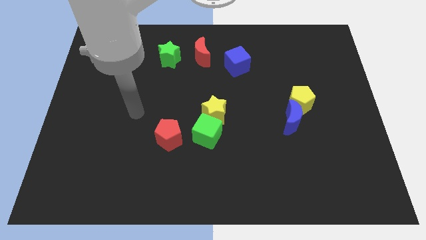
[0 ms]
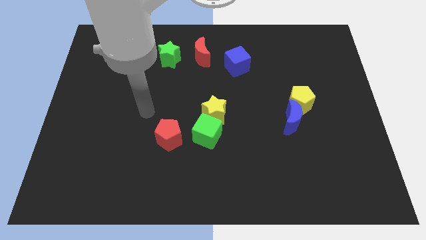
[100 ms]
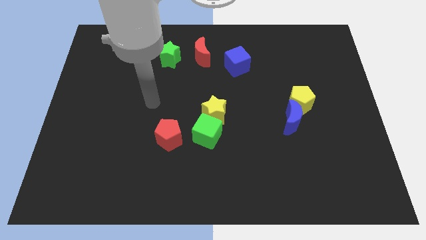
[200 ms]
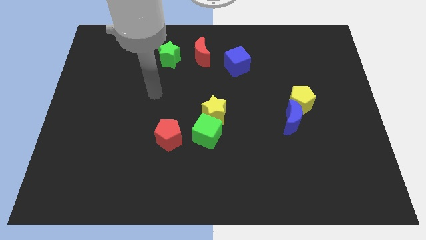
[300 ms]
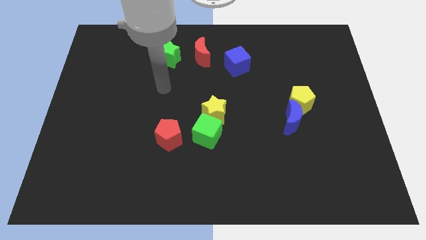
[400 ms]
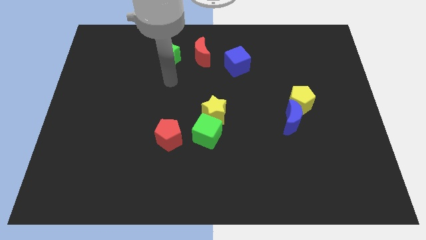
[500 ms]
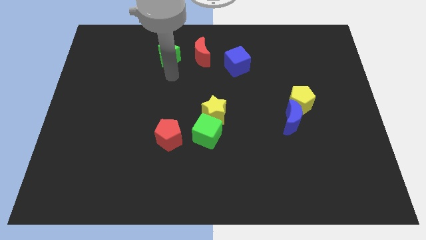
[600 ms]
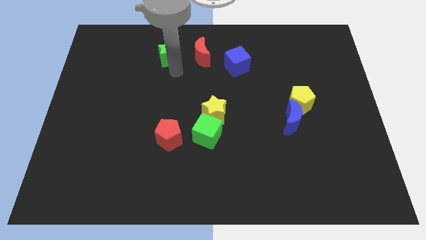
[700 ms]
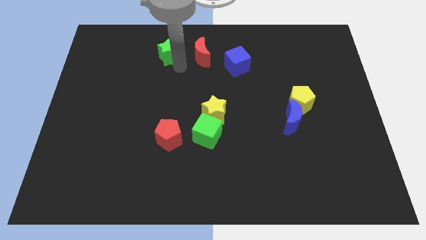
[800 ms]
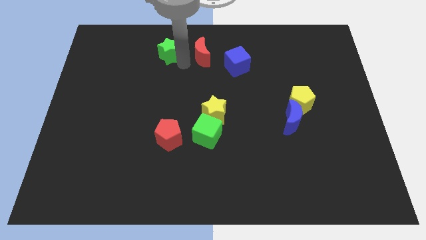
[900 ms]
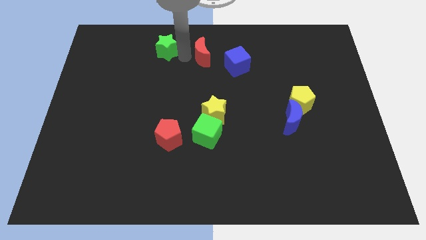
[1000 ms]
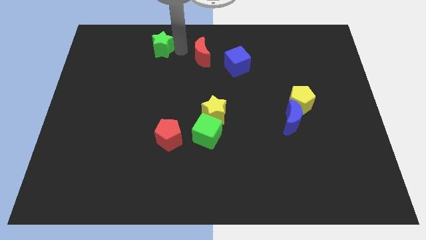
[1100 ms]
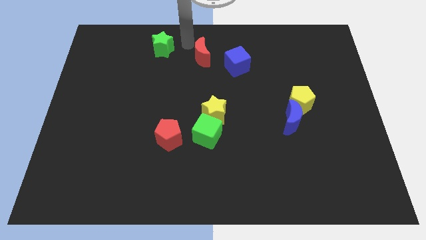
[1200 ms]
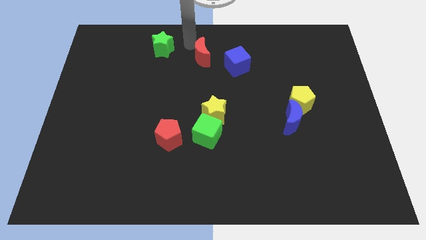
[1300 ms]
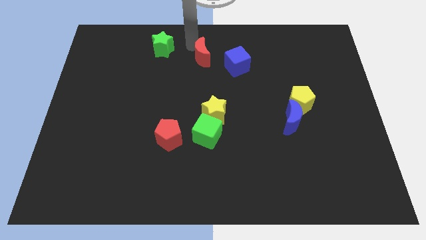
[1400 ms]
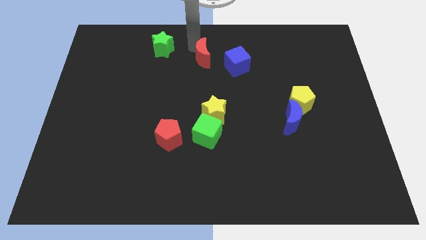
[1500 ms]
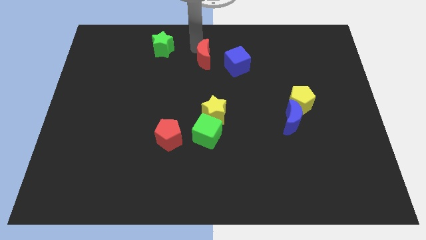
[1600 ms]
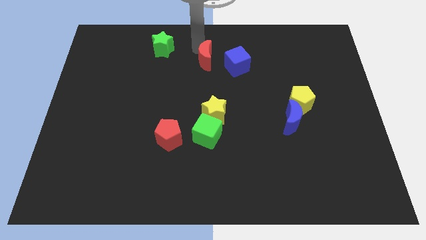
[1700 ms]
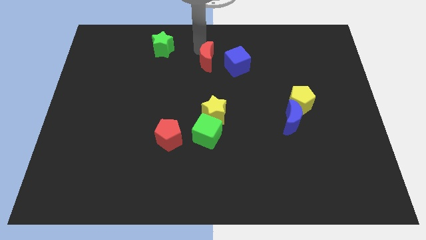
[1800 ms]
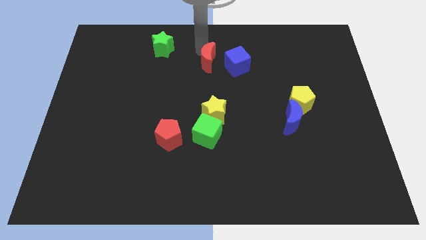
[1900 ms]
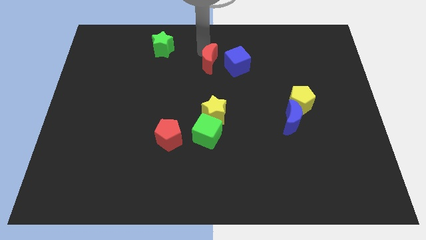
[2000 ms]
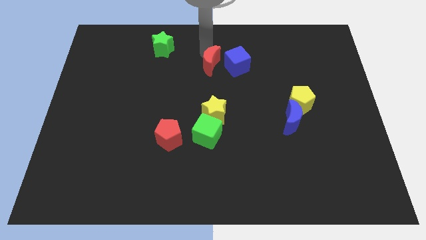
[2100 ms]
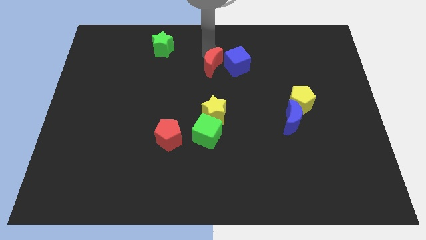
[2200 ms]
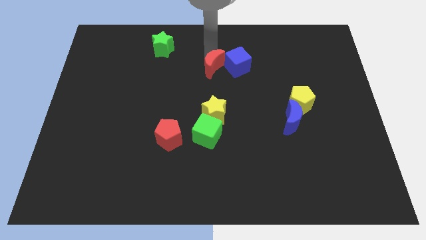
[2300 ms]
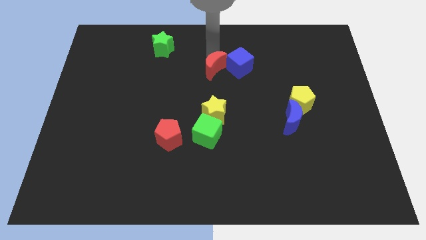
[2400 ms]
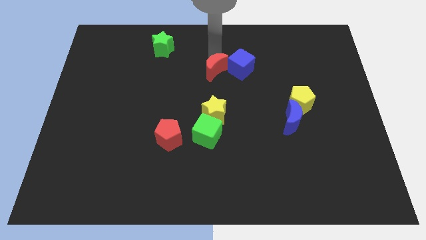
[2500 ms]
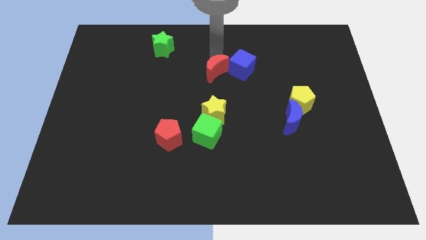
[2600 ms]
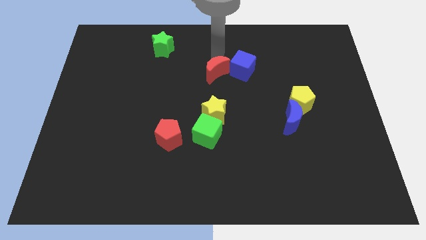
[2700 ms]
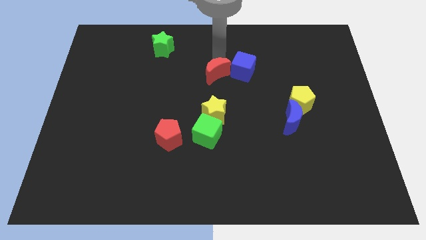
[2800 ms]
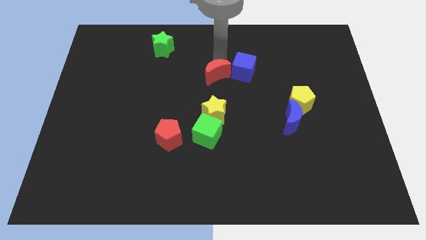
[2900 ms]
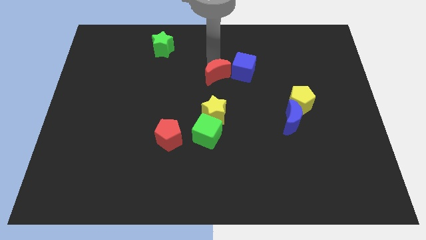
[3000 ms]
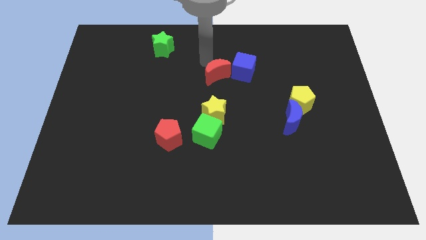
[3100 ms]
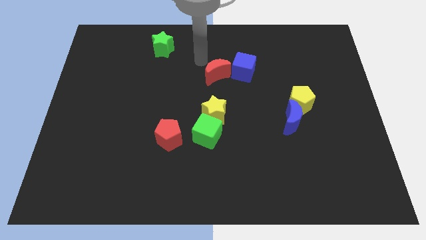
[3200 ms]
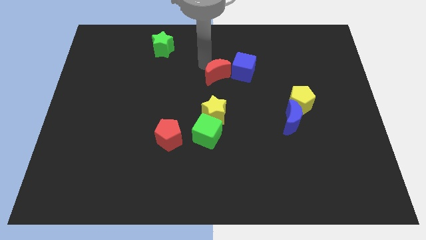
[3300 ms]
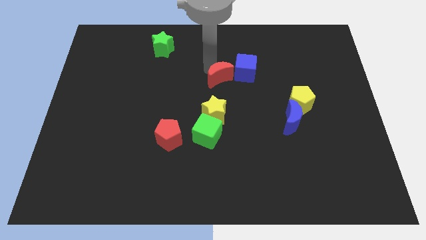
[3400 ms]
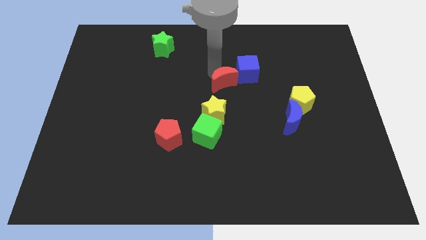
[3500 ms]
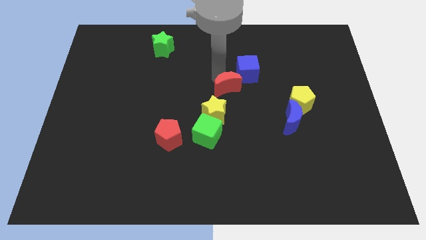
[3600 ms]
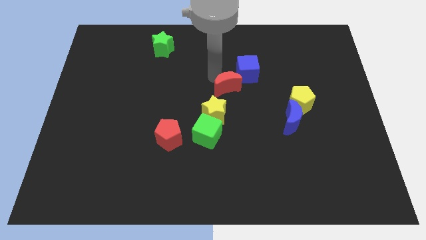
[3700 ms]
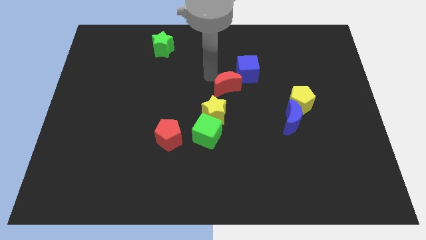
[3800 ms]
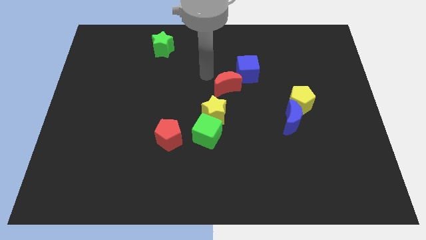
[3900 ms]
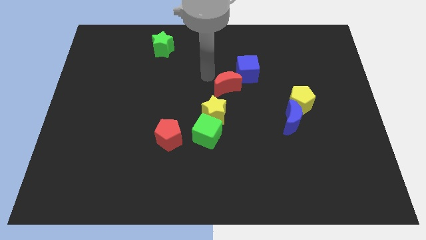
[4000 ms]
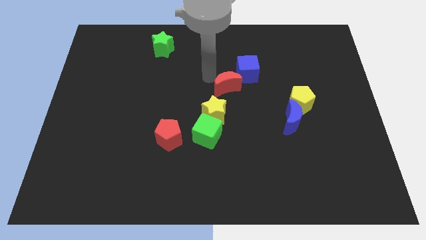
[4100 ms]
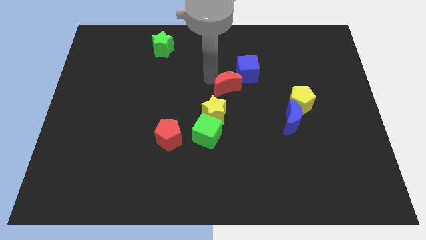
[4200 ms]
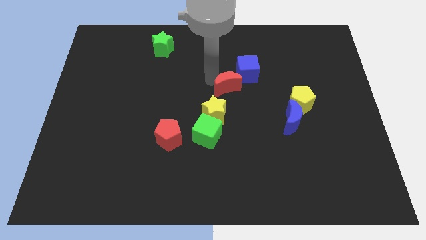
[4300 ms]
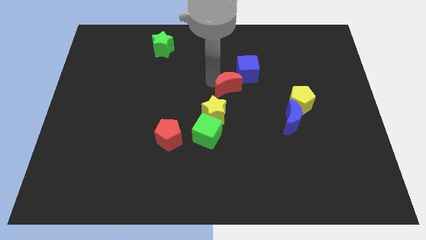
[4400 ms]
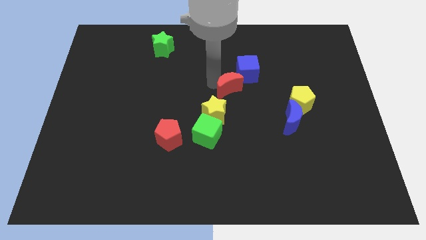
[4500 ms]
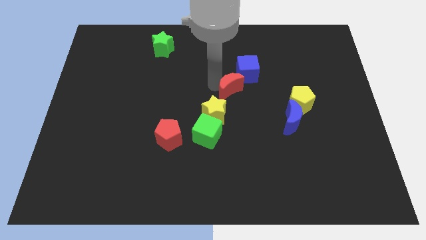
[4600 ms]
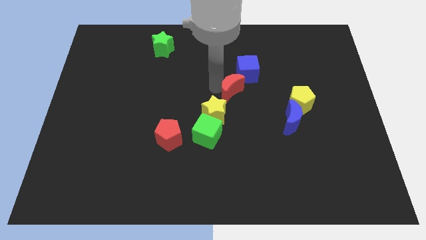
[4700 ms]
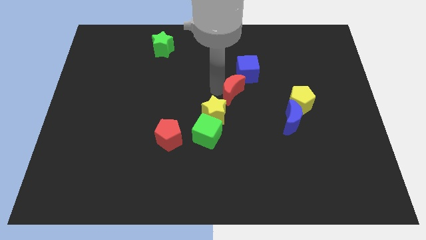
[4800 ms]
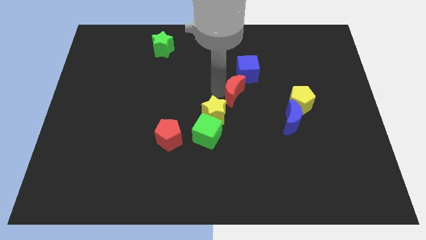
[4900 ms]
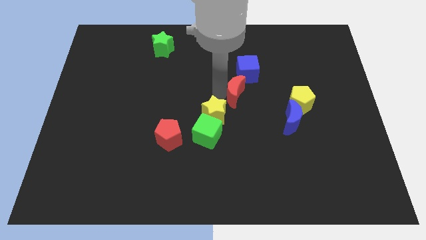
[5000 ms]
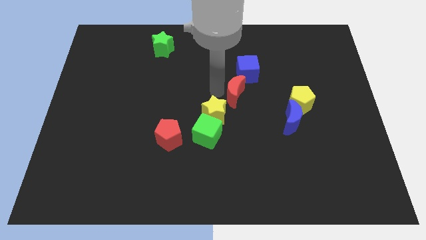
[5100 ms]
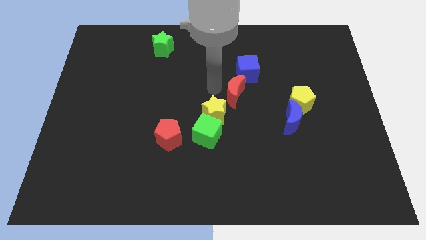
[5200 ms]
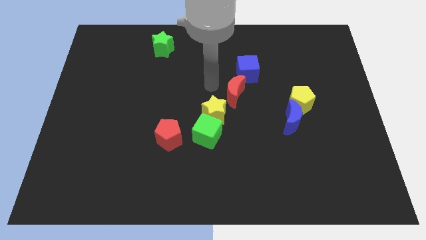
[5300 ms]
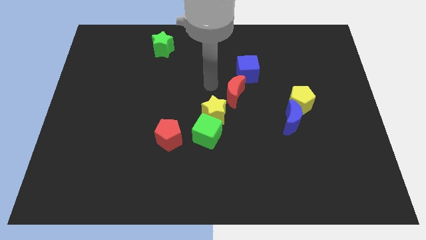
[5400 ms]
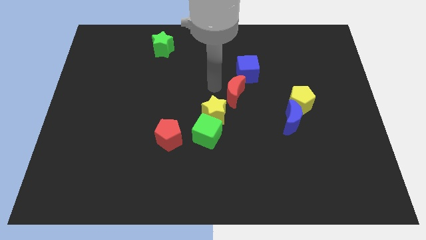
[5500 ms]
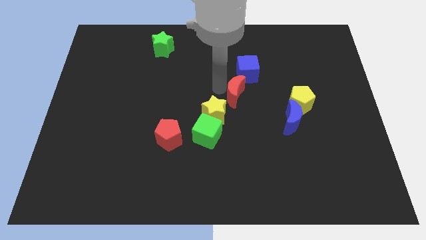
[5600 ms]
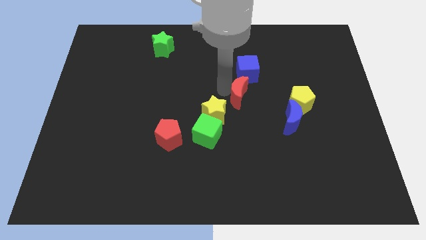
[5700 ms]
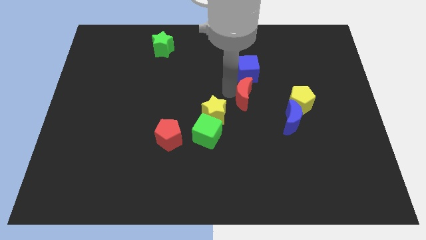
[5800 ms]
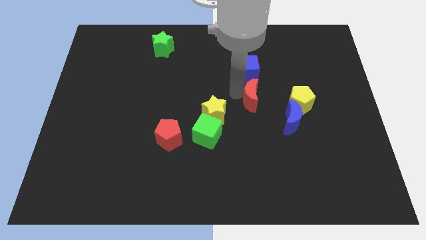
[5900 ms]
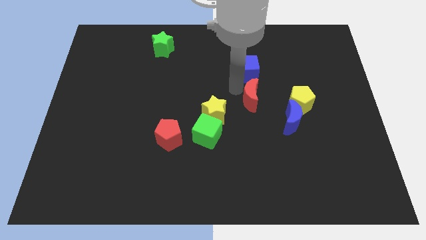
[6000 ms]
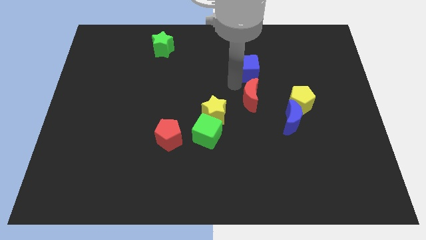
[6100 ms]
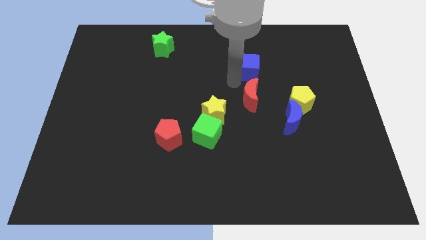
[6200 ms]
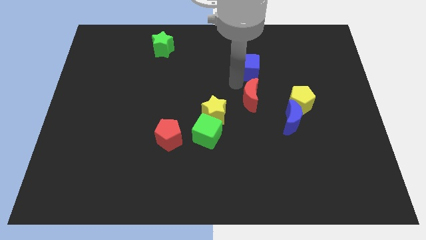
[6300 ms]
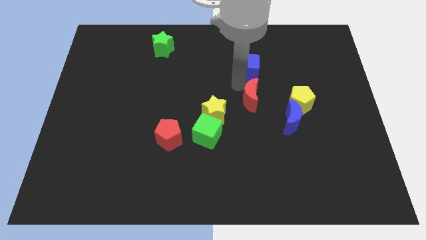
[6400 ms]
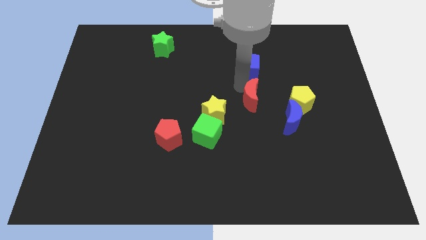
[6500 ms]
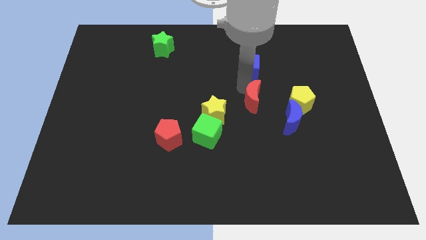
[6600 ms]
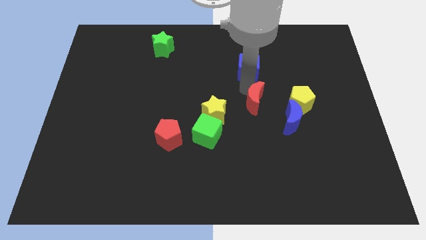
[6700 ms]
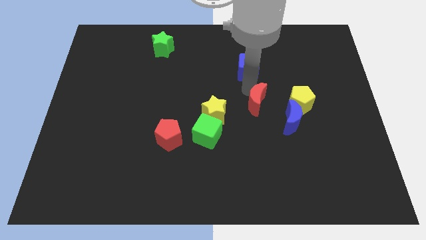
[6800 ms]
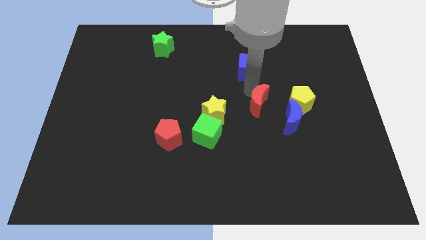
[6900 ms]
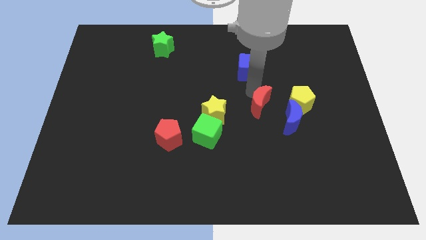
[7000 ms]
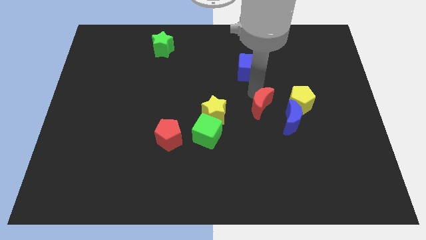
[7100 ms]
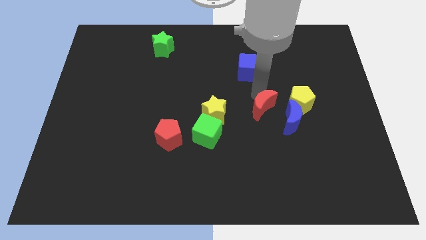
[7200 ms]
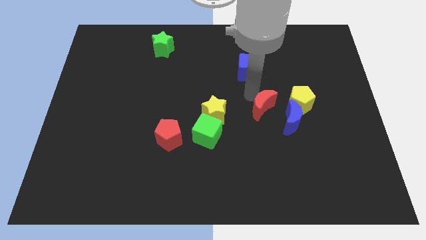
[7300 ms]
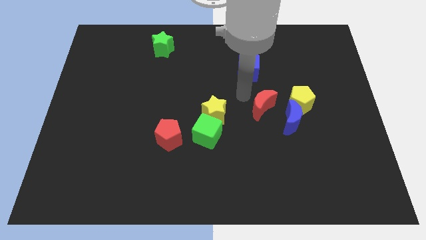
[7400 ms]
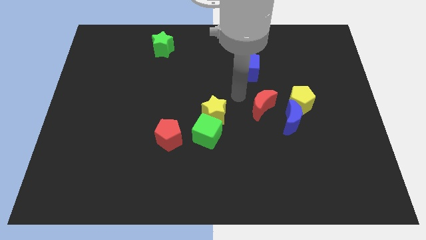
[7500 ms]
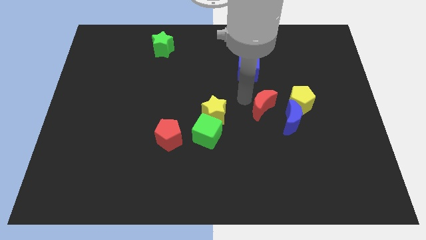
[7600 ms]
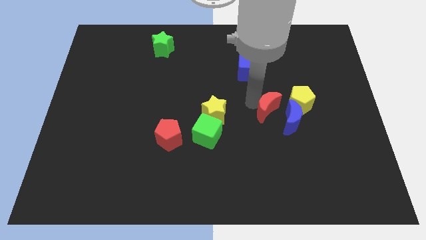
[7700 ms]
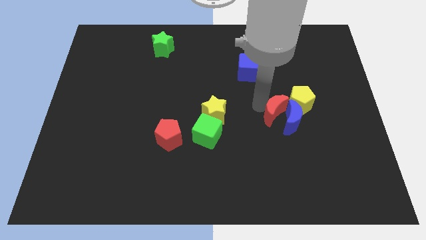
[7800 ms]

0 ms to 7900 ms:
put the red moon close to the blue moon

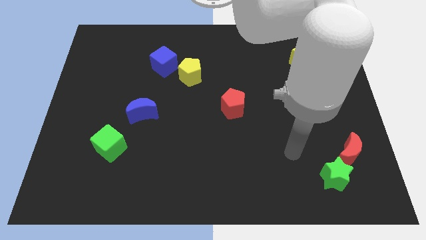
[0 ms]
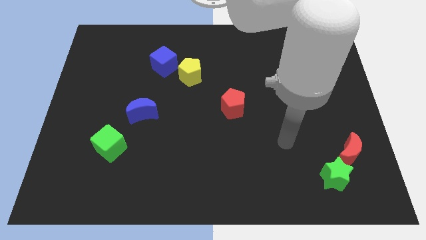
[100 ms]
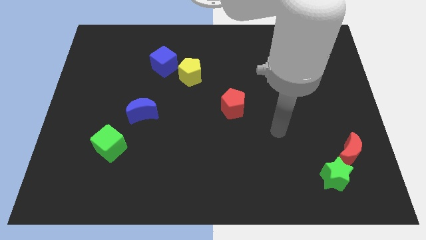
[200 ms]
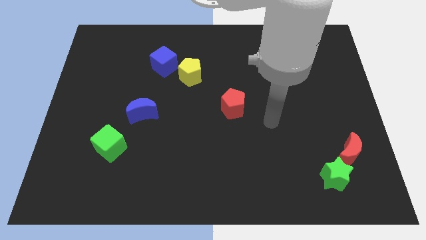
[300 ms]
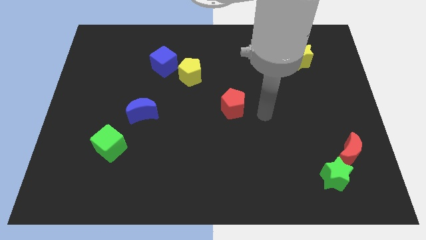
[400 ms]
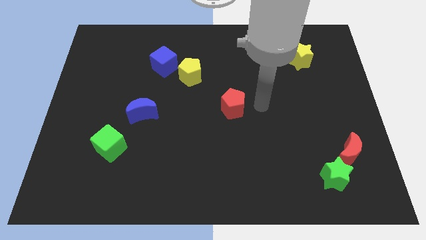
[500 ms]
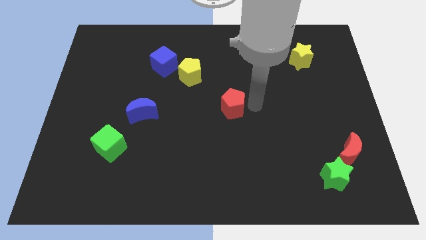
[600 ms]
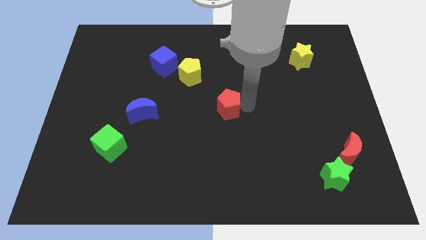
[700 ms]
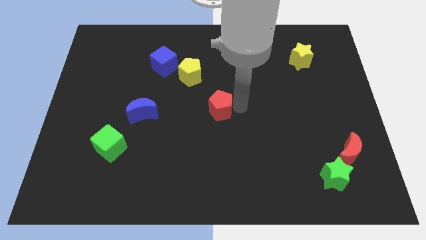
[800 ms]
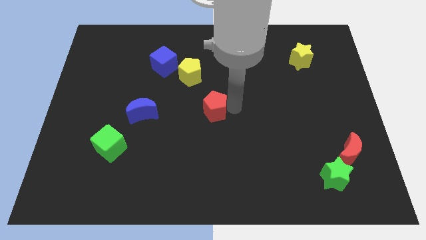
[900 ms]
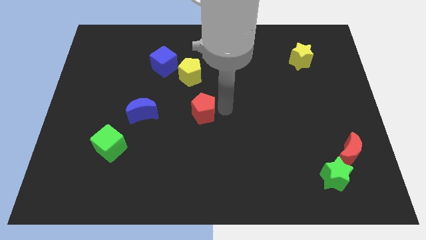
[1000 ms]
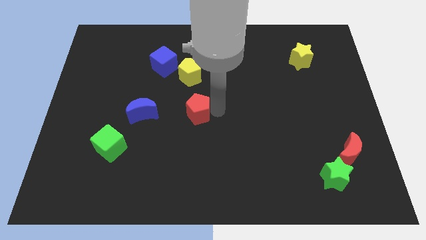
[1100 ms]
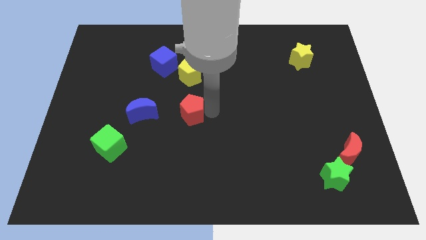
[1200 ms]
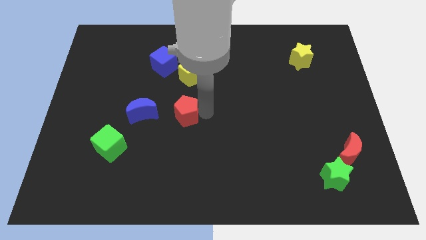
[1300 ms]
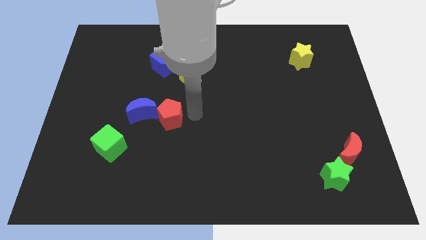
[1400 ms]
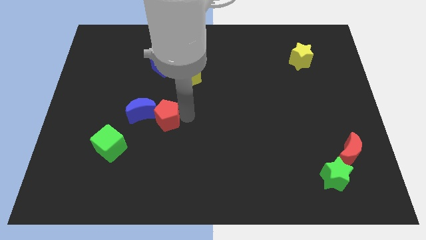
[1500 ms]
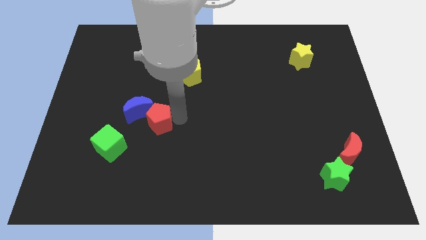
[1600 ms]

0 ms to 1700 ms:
push the red pentagon towards the blue moon
